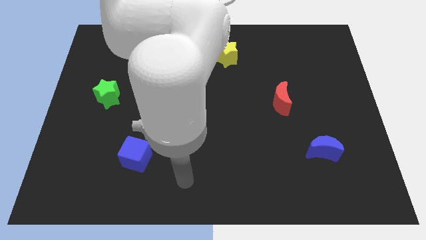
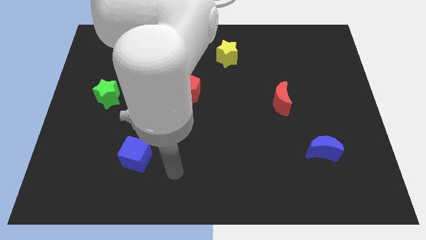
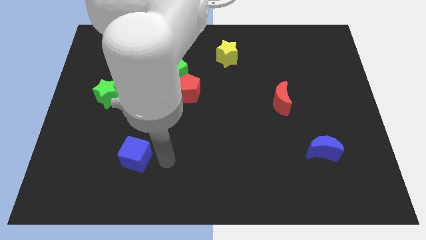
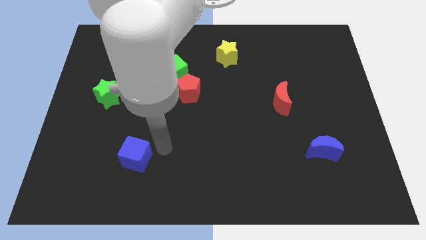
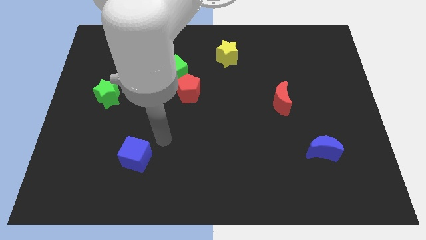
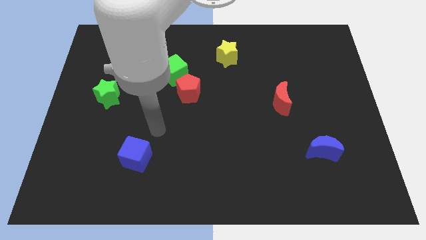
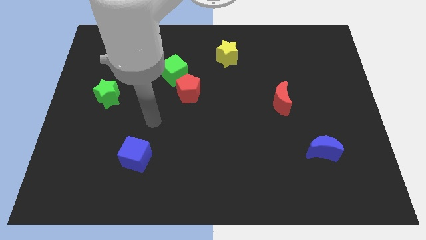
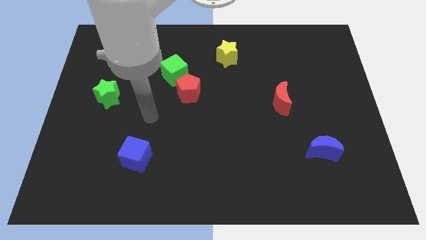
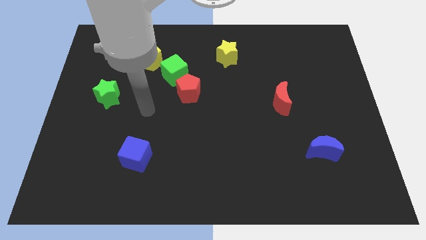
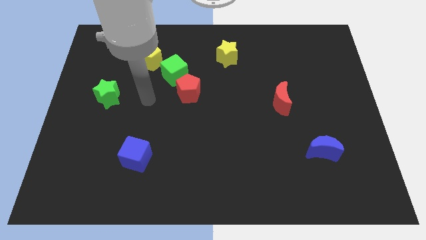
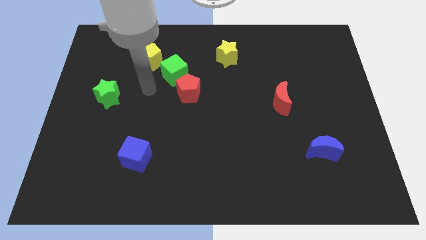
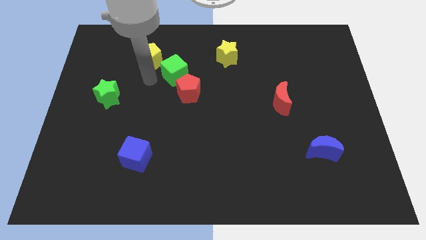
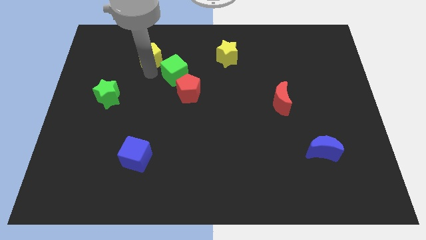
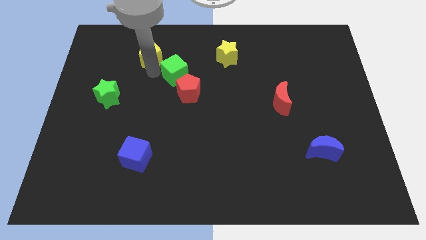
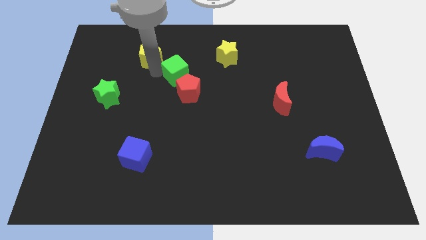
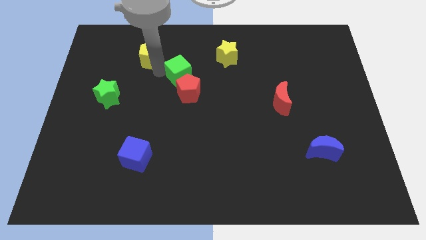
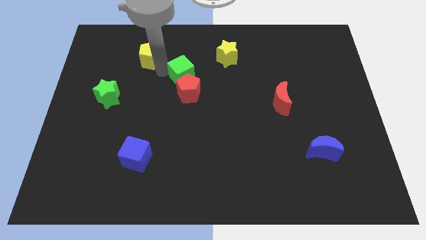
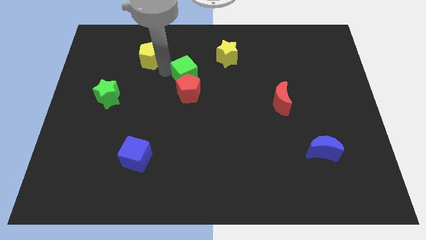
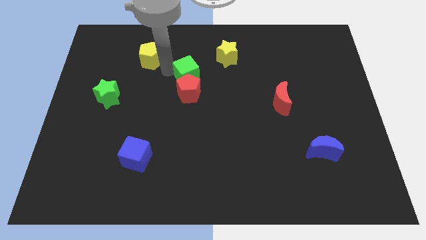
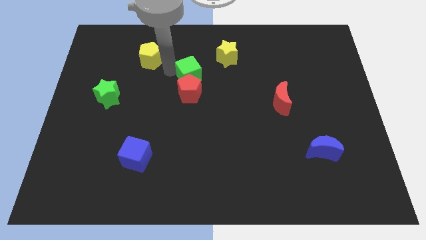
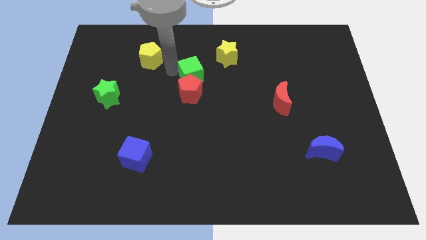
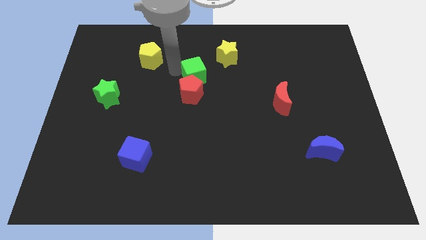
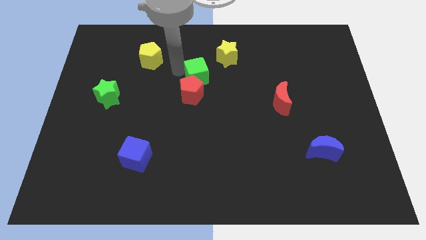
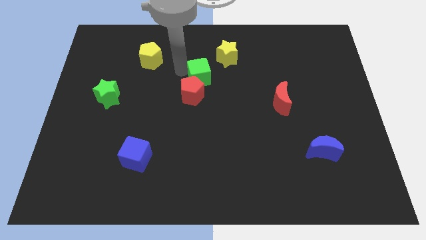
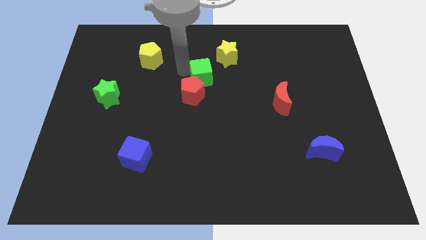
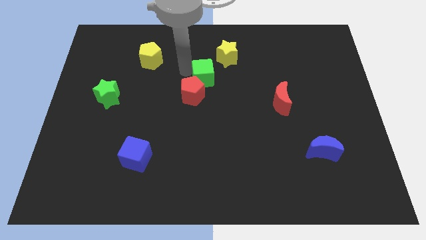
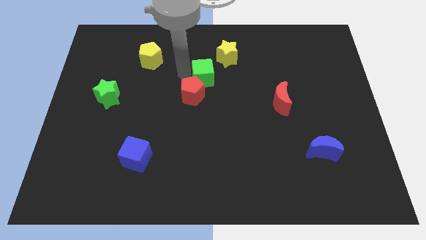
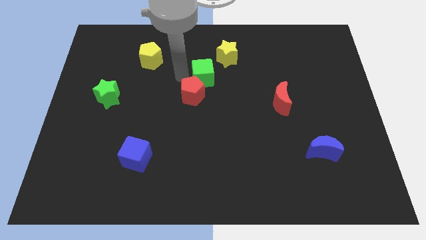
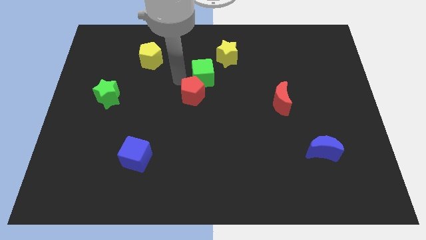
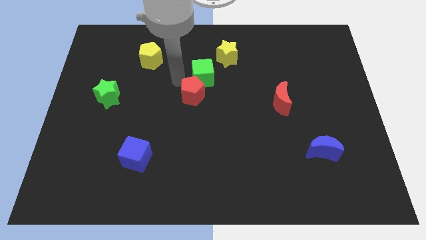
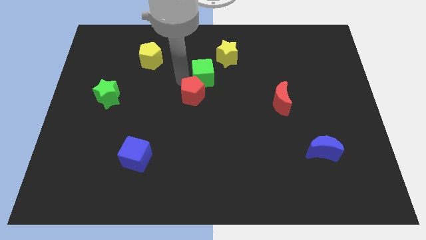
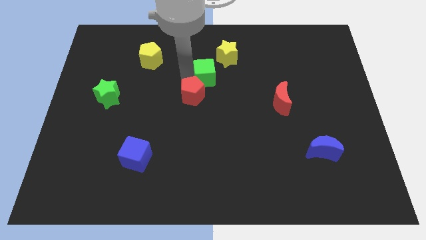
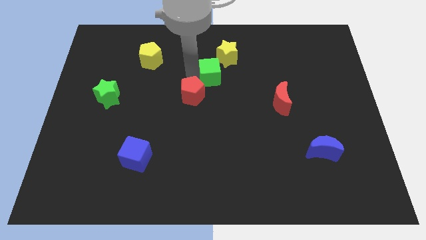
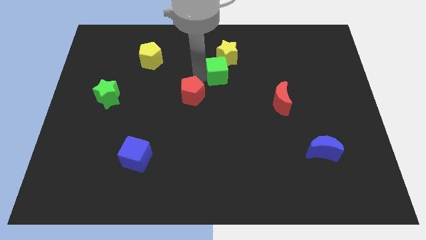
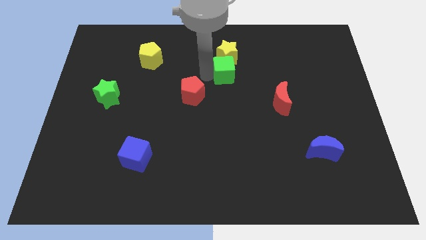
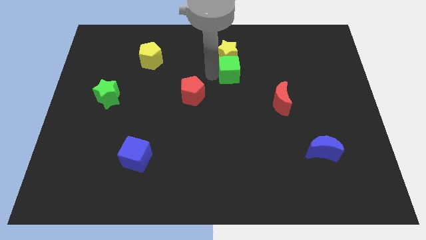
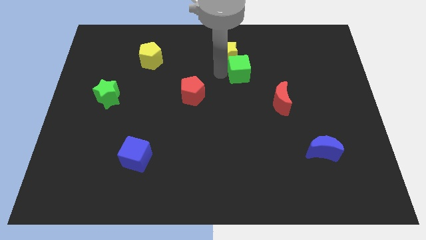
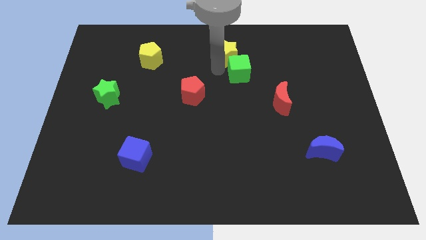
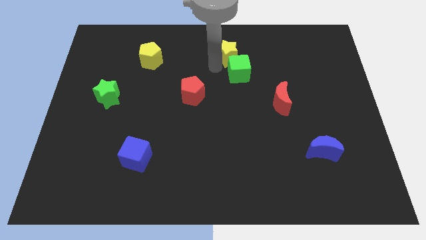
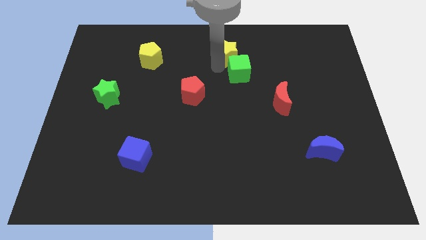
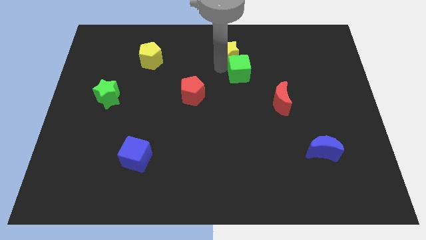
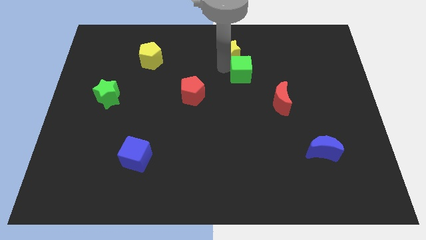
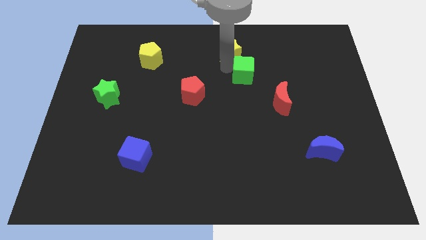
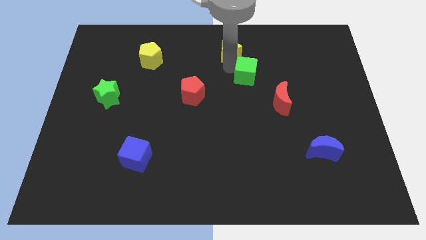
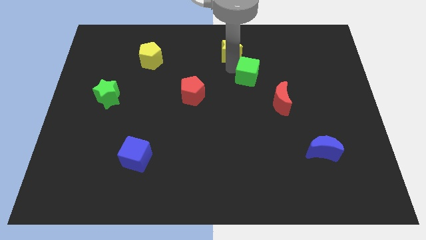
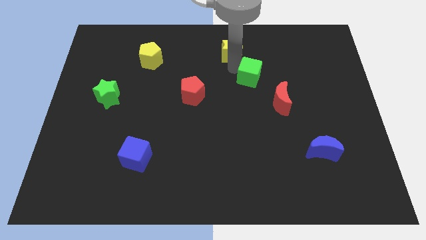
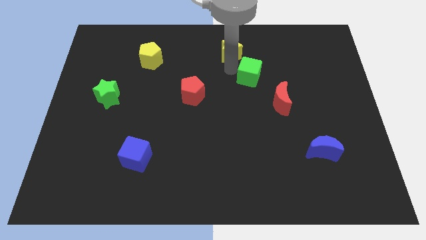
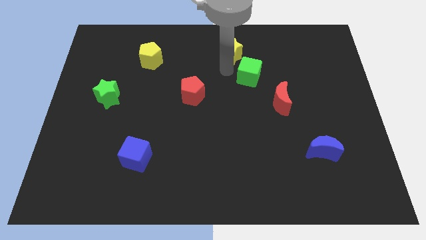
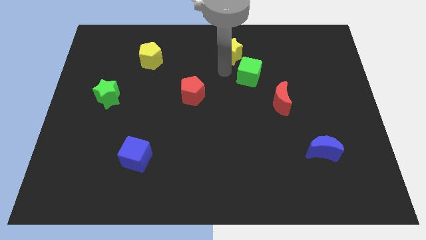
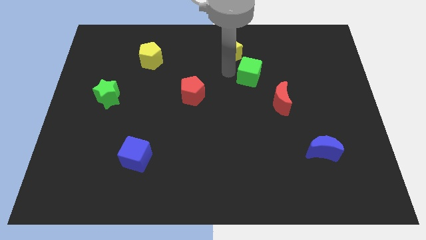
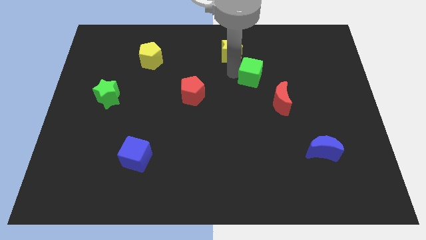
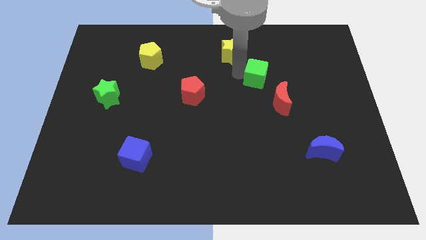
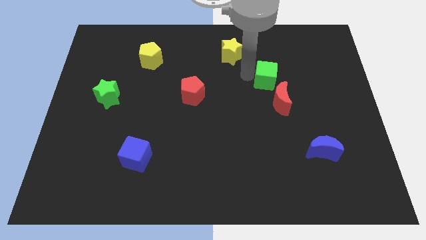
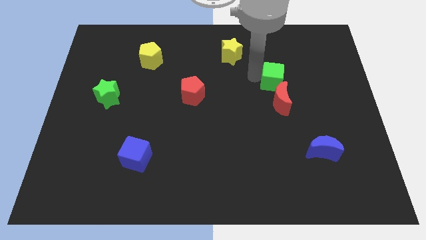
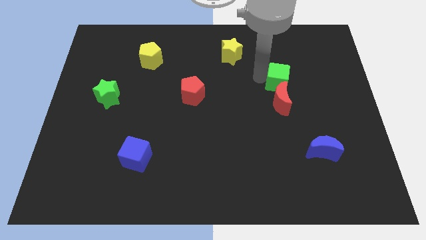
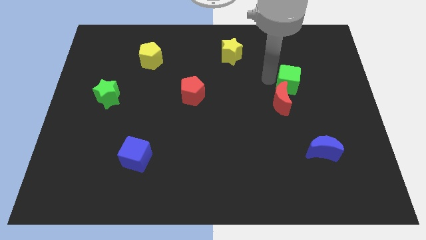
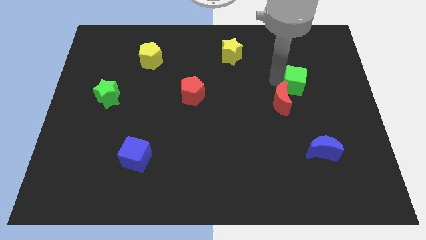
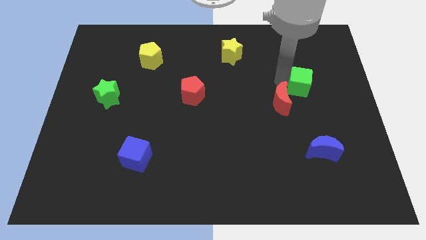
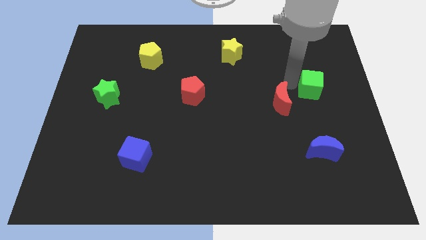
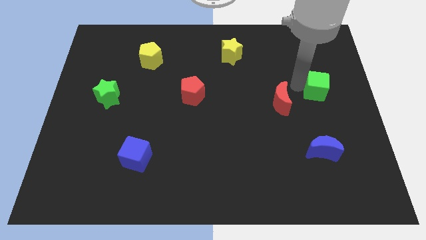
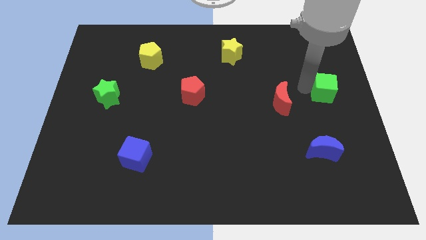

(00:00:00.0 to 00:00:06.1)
push the green cube to the right side

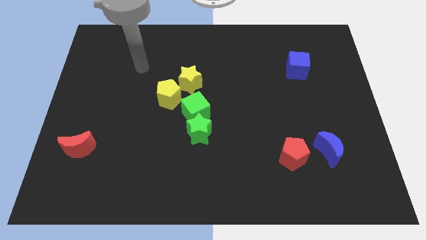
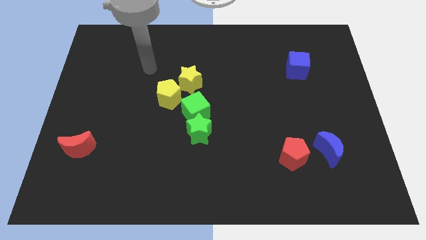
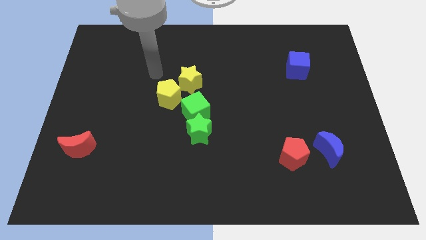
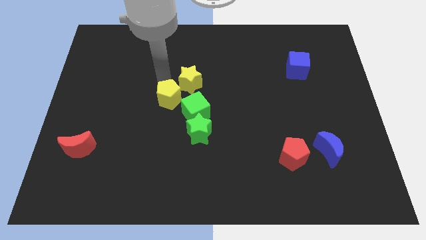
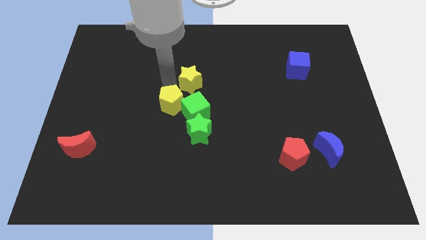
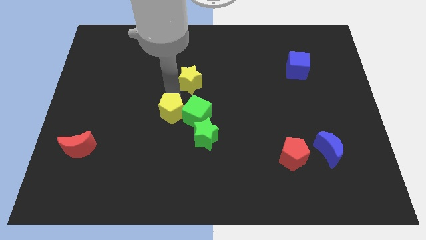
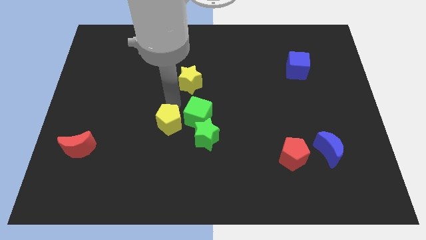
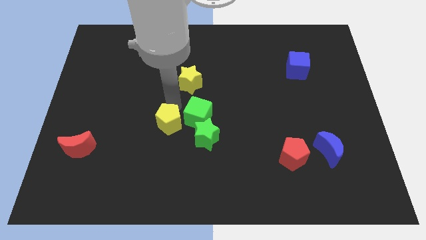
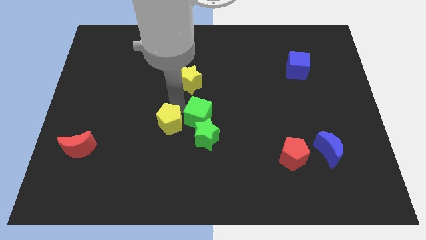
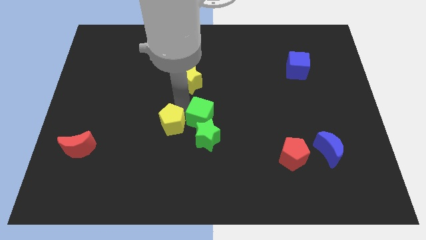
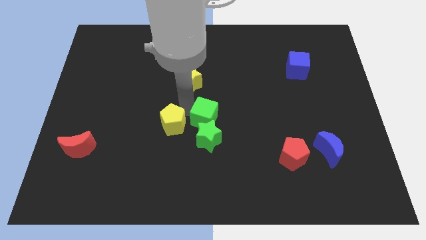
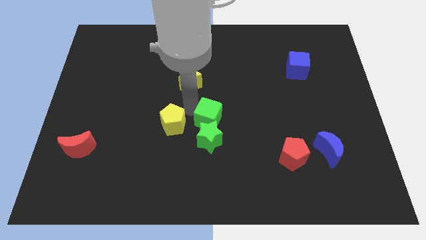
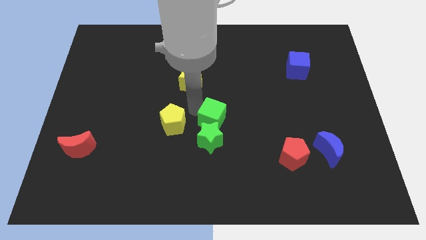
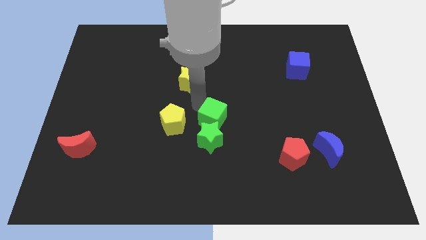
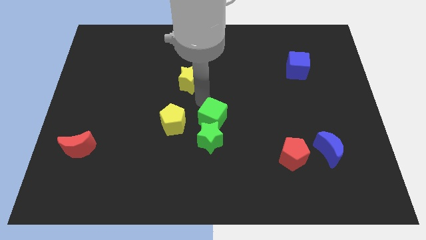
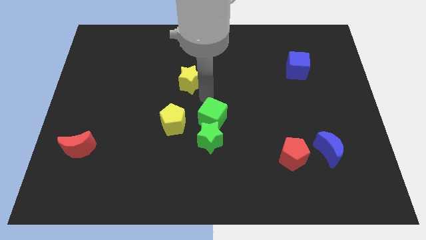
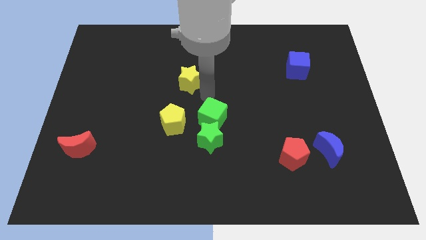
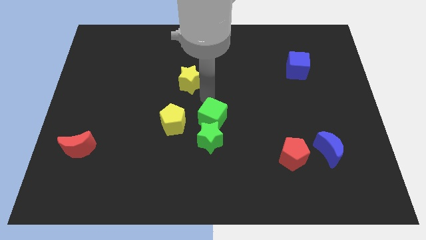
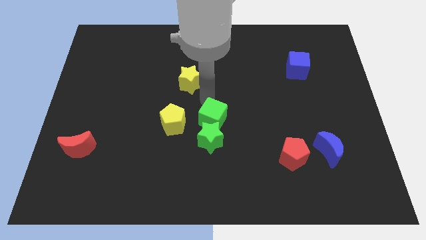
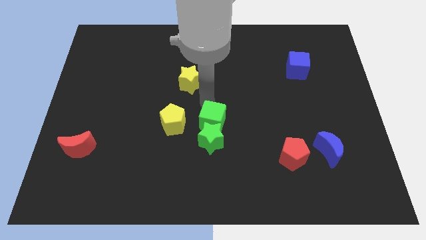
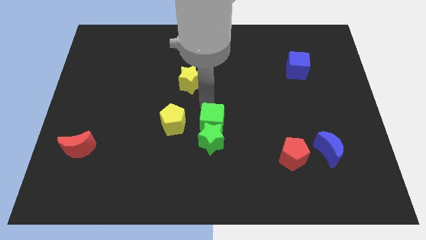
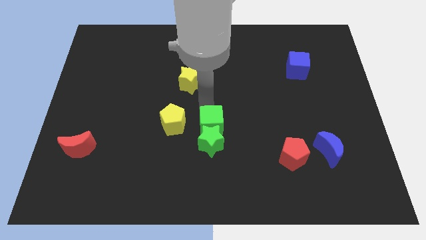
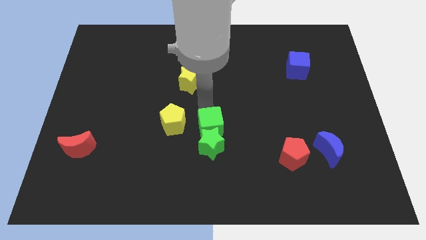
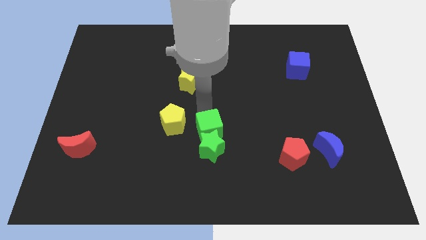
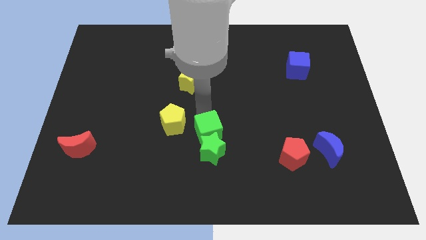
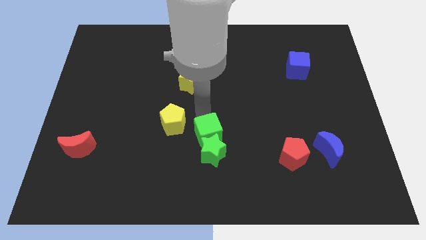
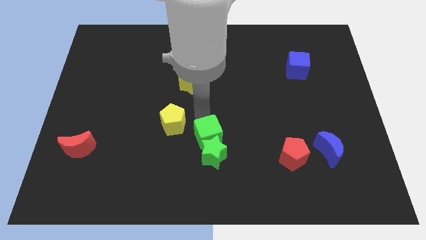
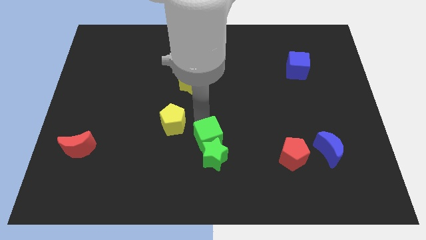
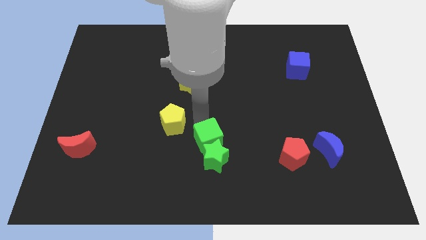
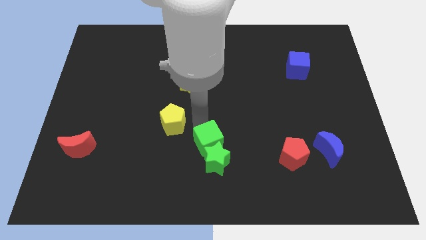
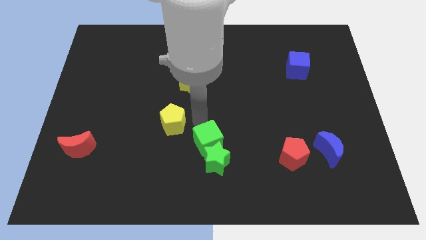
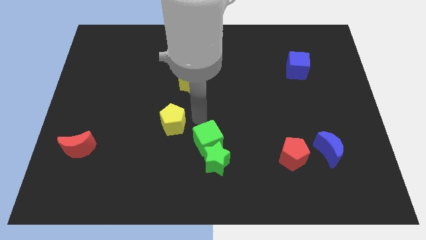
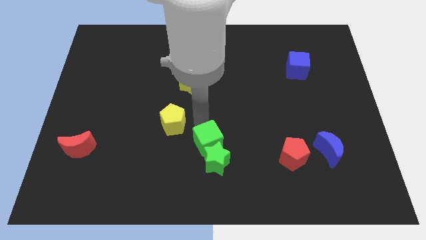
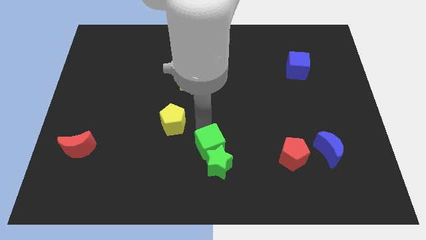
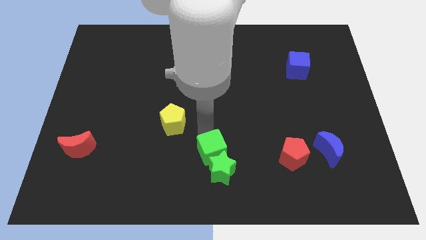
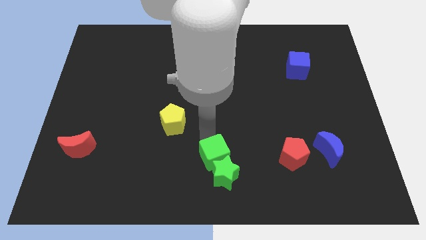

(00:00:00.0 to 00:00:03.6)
slide the green cube to the bottom
